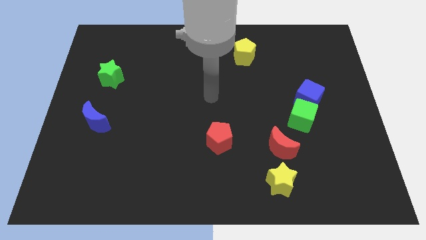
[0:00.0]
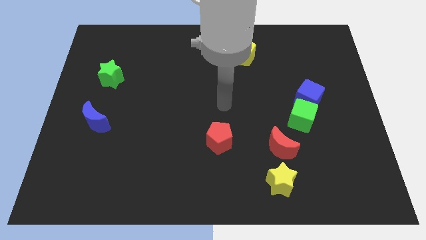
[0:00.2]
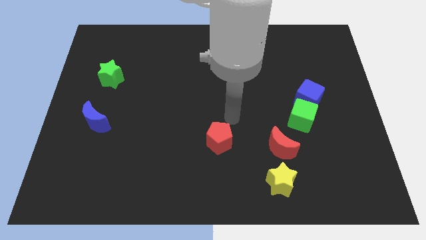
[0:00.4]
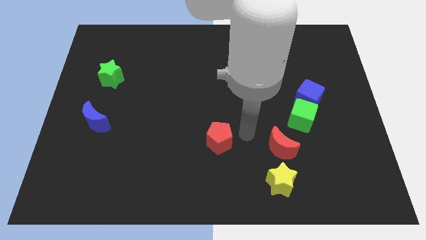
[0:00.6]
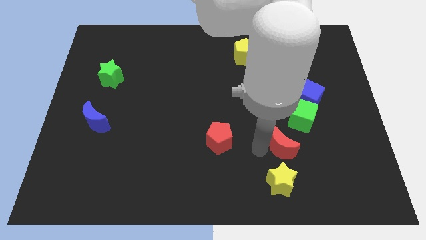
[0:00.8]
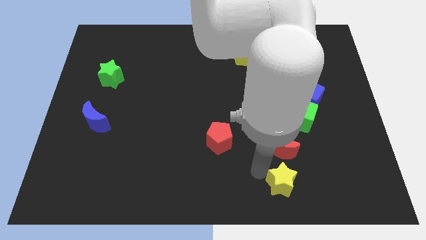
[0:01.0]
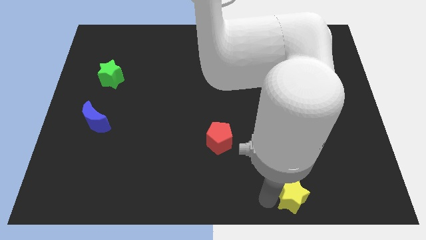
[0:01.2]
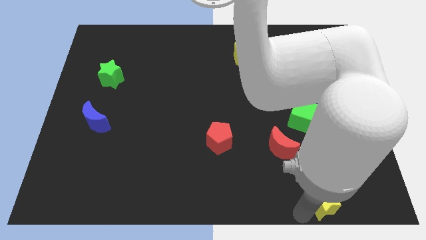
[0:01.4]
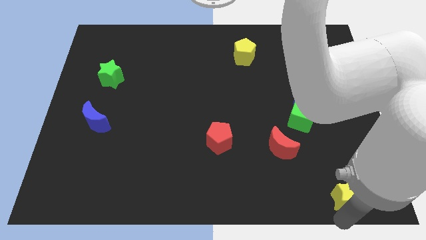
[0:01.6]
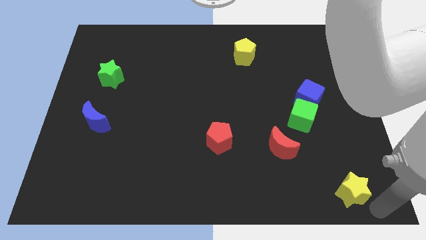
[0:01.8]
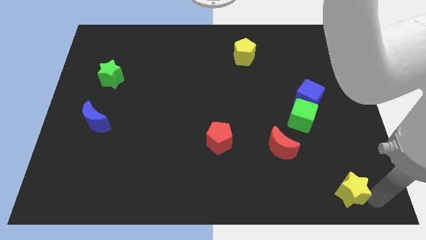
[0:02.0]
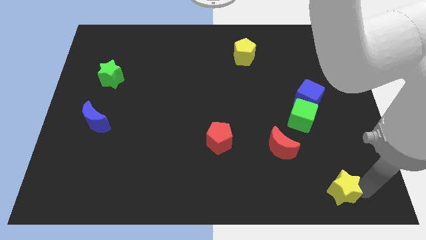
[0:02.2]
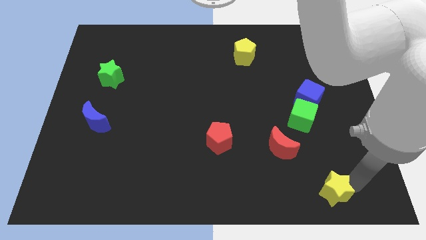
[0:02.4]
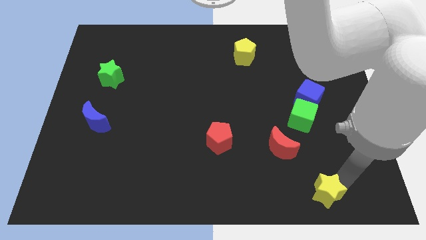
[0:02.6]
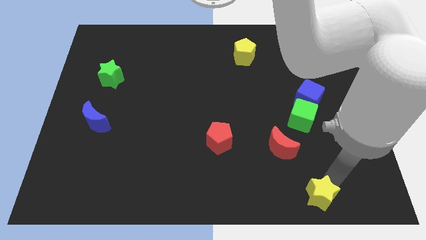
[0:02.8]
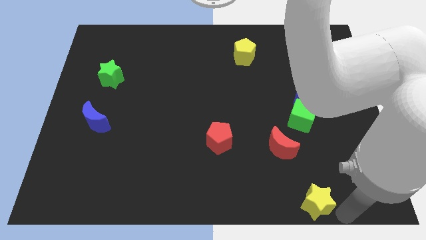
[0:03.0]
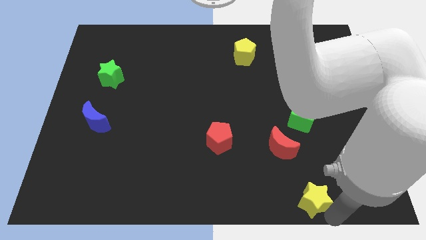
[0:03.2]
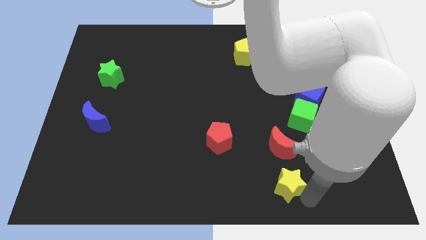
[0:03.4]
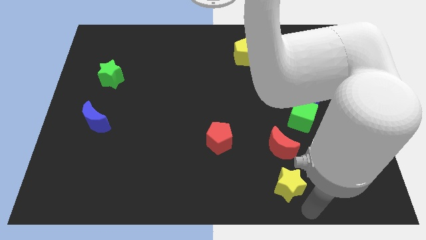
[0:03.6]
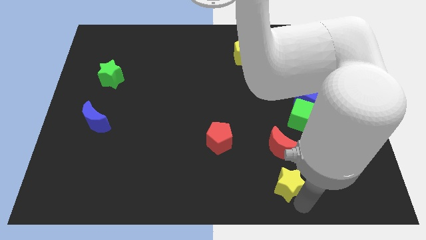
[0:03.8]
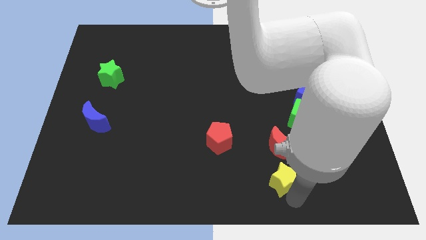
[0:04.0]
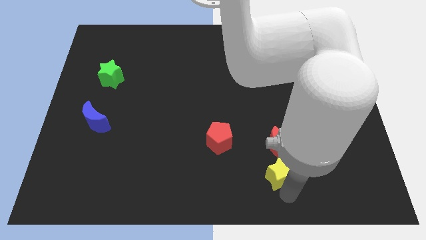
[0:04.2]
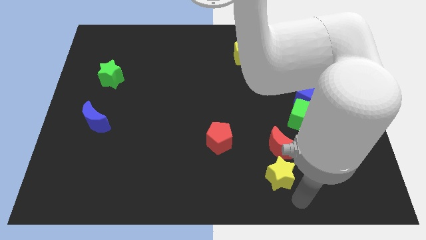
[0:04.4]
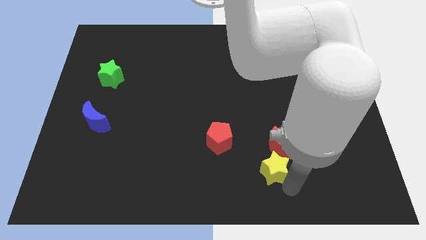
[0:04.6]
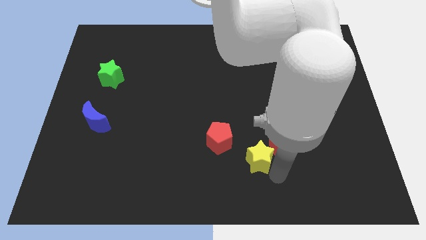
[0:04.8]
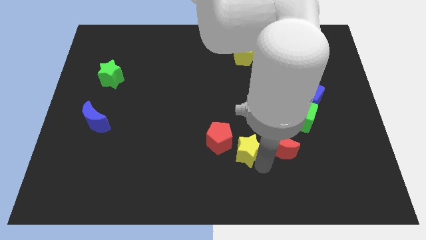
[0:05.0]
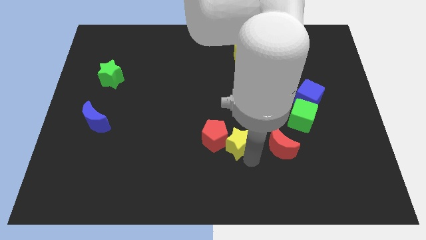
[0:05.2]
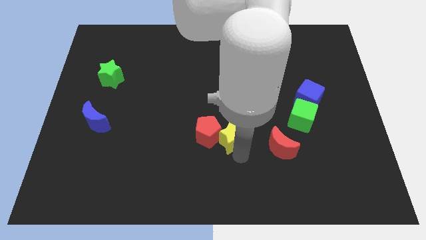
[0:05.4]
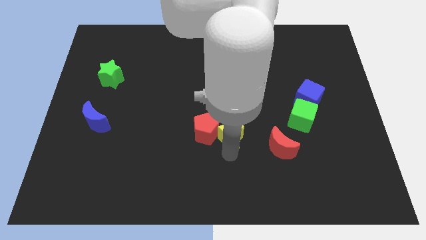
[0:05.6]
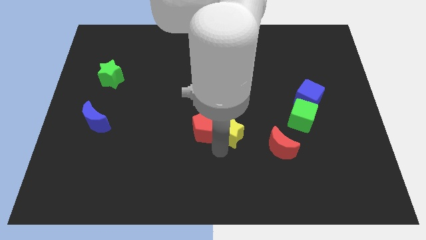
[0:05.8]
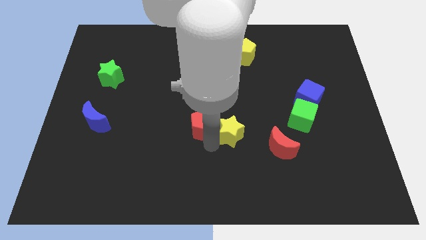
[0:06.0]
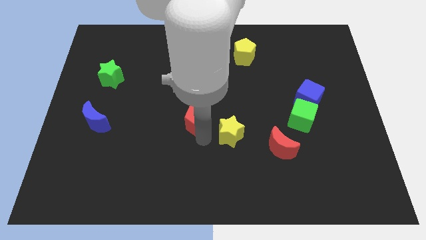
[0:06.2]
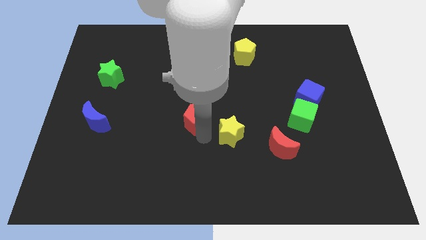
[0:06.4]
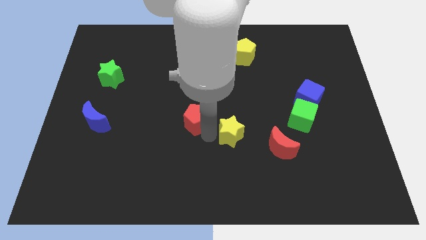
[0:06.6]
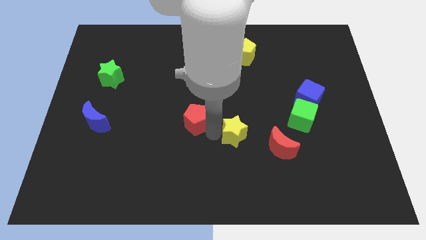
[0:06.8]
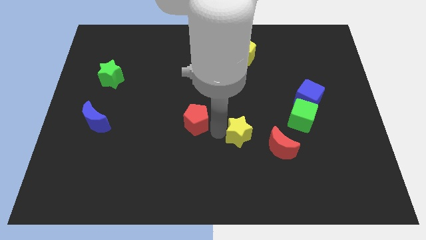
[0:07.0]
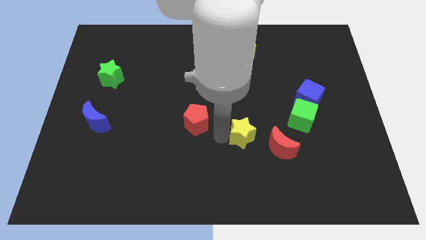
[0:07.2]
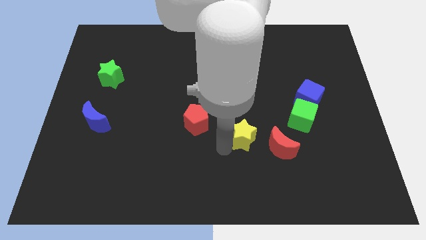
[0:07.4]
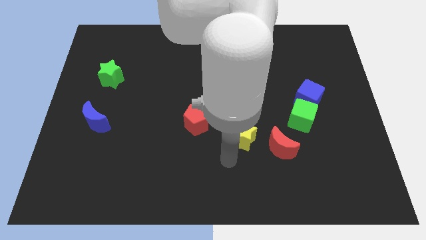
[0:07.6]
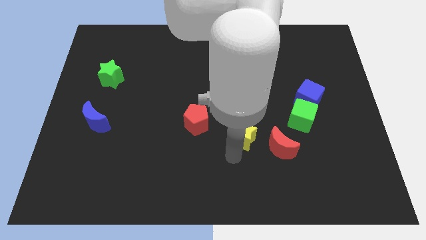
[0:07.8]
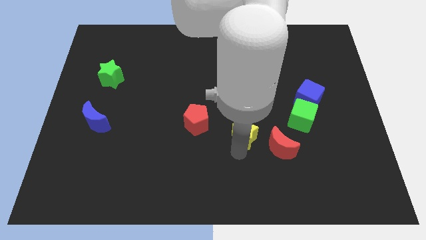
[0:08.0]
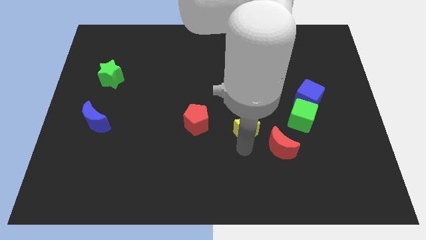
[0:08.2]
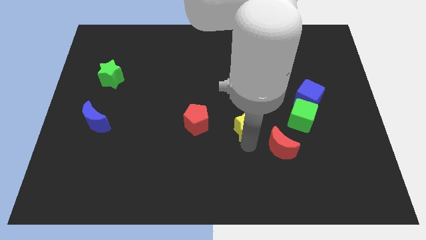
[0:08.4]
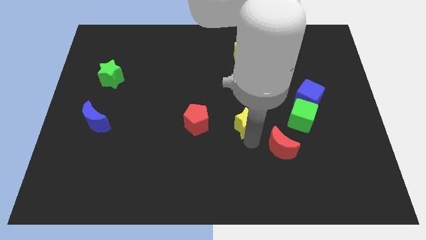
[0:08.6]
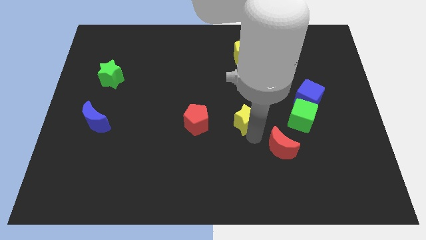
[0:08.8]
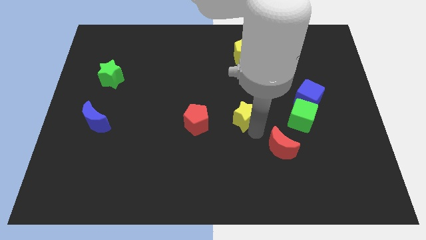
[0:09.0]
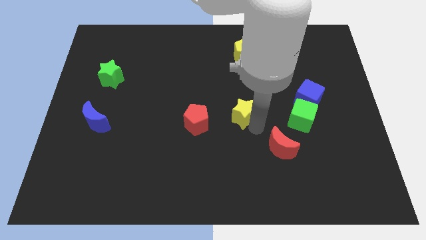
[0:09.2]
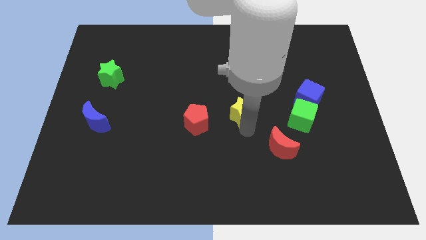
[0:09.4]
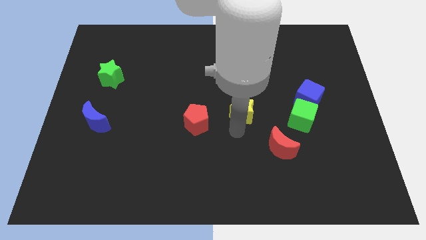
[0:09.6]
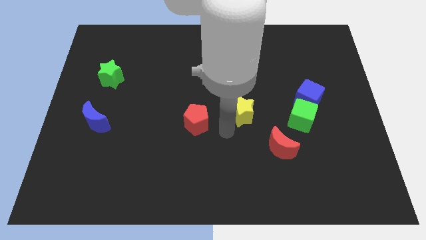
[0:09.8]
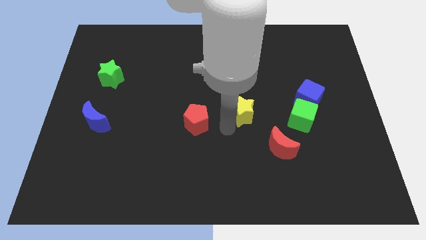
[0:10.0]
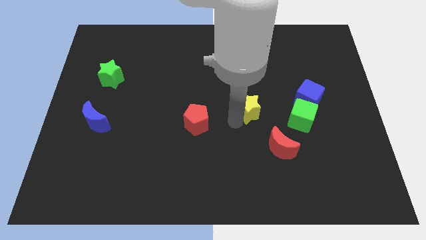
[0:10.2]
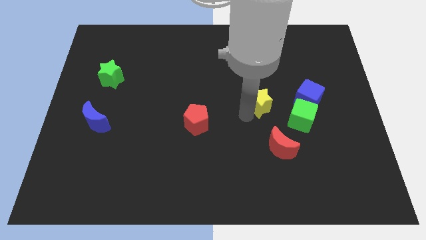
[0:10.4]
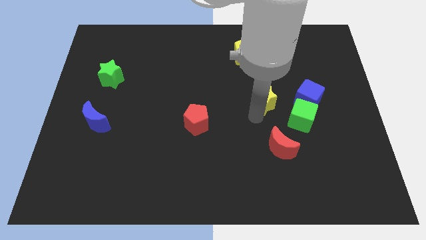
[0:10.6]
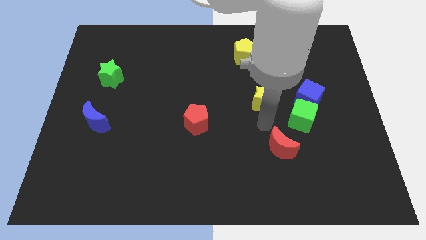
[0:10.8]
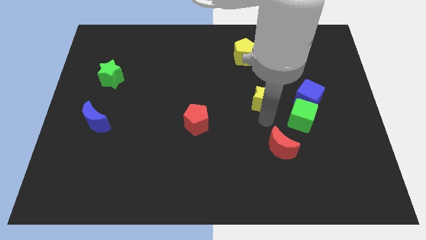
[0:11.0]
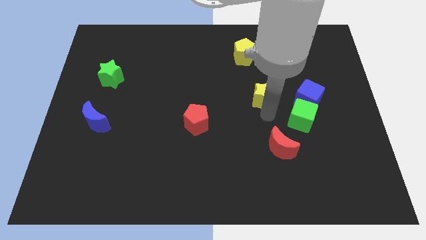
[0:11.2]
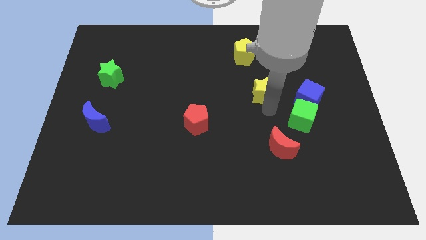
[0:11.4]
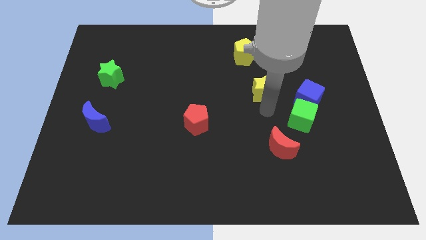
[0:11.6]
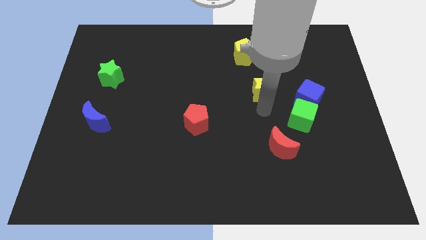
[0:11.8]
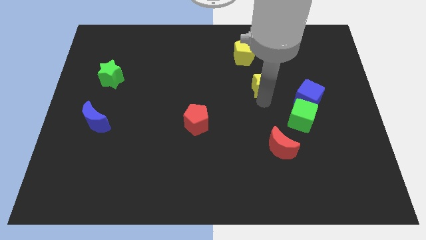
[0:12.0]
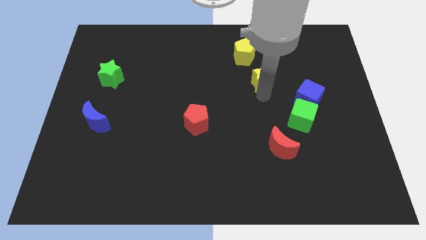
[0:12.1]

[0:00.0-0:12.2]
put the yellow star to the bottom right side of the yellow pentagon

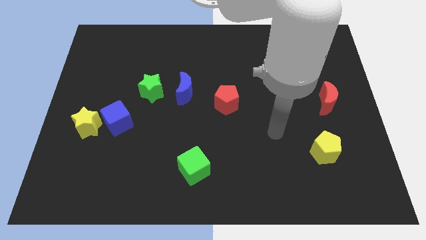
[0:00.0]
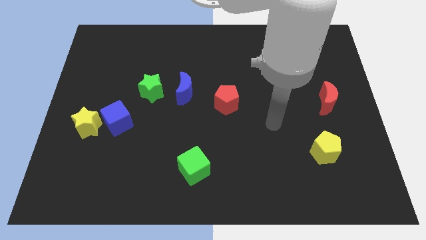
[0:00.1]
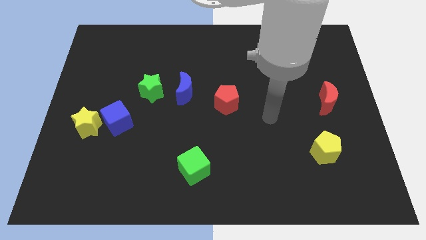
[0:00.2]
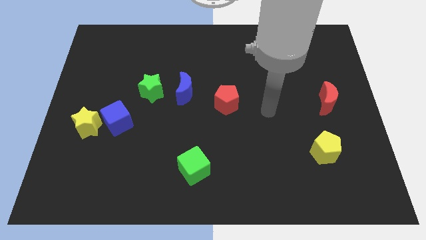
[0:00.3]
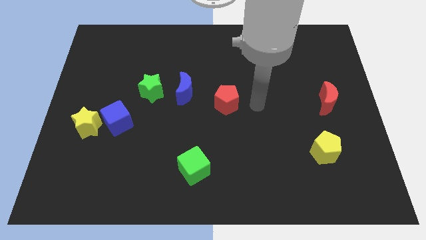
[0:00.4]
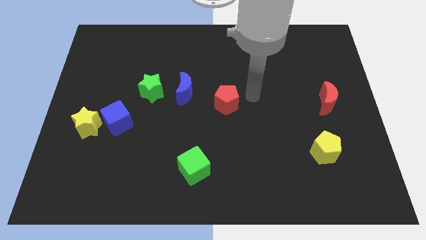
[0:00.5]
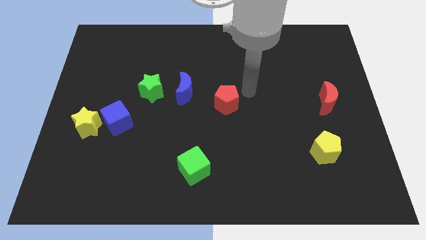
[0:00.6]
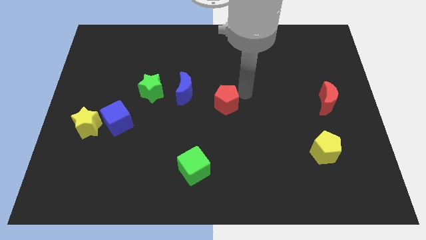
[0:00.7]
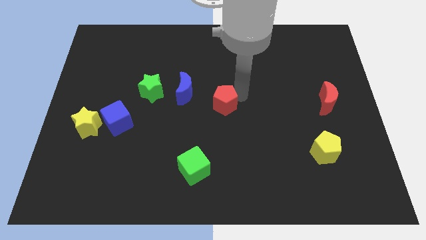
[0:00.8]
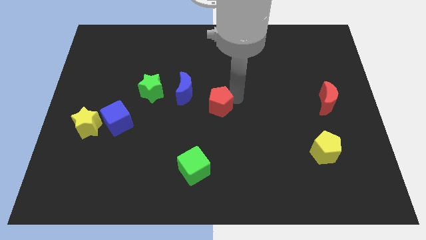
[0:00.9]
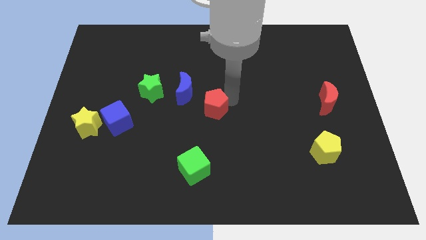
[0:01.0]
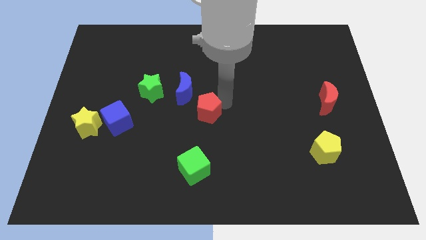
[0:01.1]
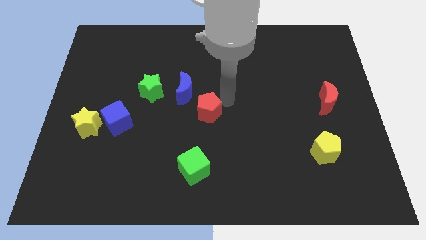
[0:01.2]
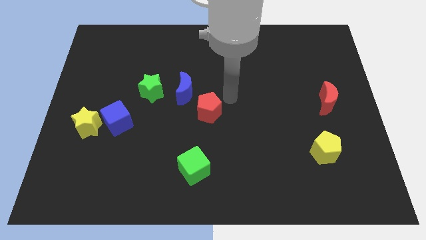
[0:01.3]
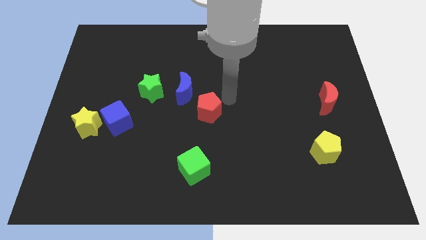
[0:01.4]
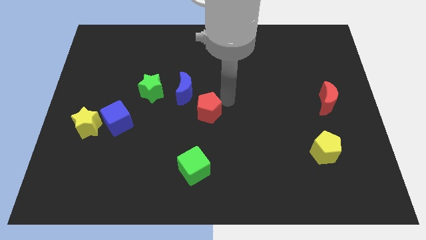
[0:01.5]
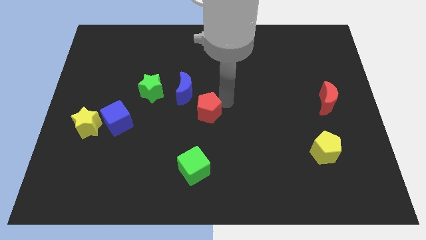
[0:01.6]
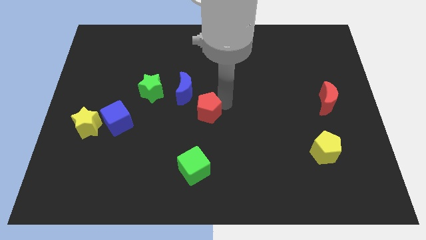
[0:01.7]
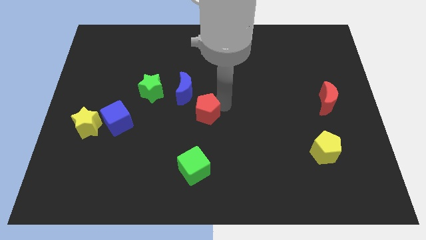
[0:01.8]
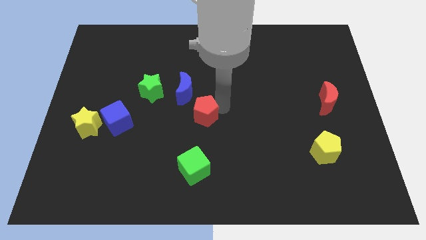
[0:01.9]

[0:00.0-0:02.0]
move the red pentagon to the bottom of the blue moon
